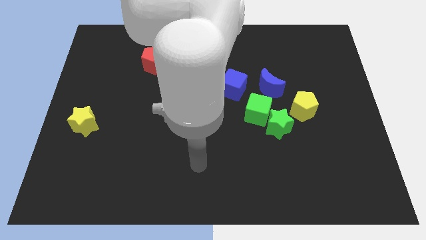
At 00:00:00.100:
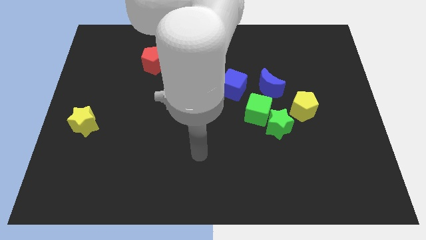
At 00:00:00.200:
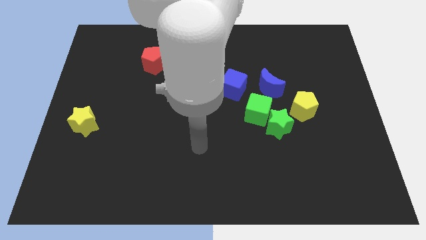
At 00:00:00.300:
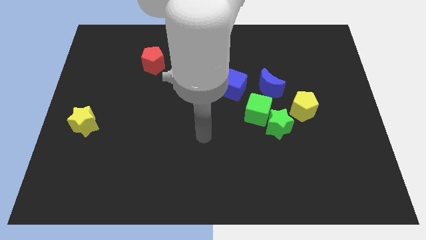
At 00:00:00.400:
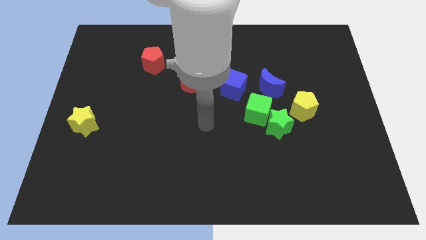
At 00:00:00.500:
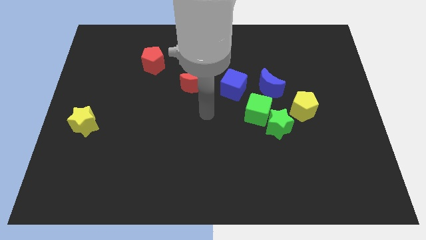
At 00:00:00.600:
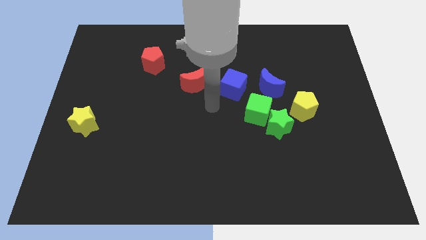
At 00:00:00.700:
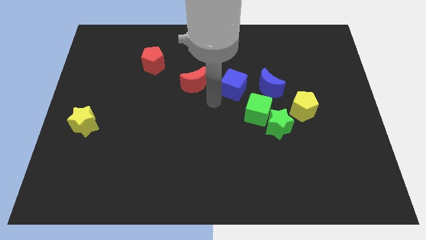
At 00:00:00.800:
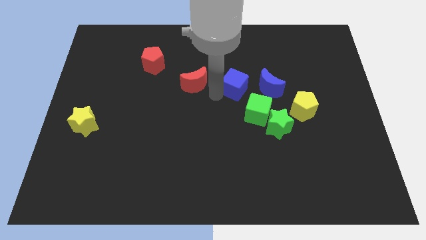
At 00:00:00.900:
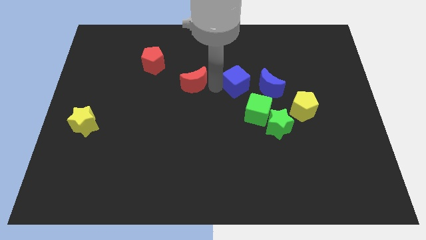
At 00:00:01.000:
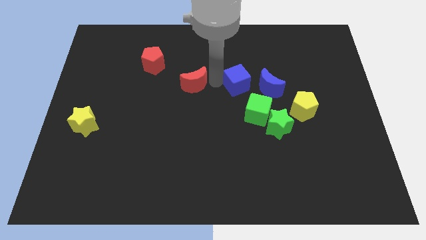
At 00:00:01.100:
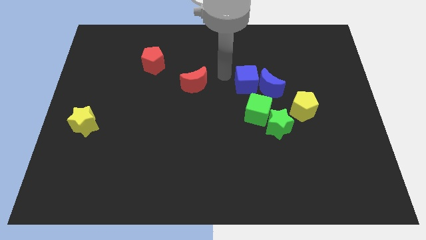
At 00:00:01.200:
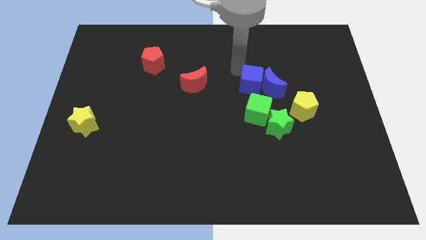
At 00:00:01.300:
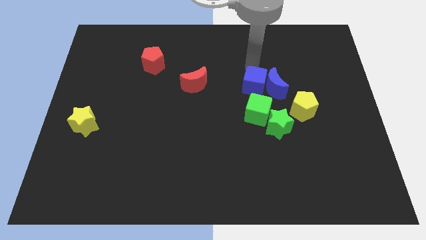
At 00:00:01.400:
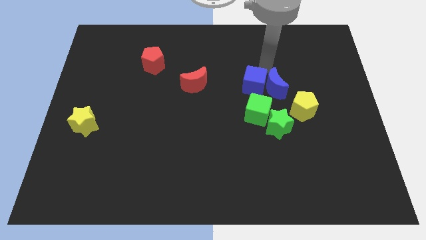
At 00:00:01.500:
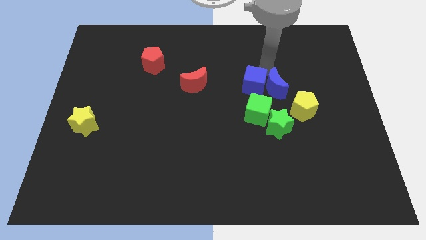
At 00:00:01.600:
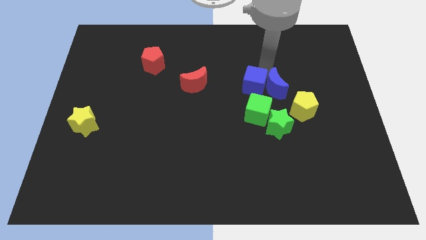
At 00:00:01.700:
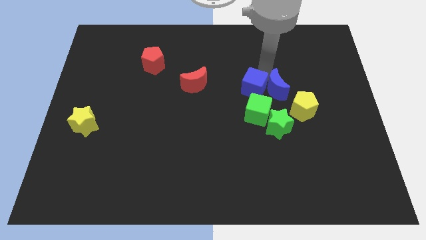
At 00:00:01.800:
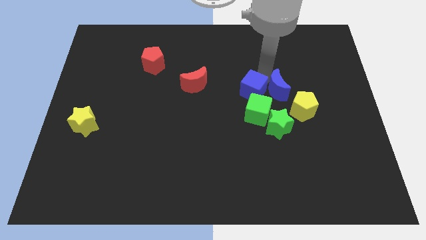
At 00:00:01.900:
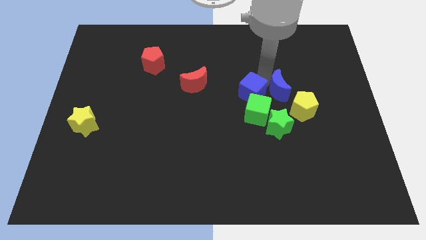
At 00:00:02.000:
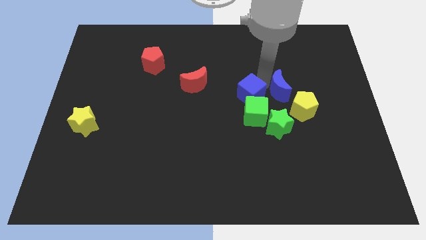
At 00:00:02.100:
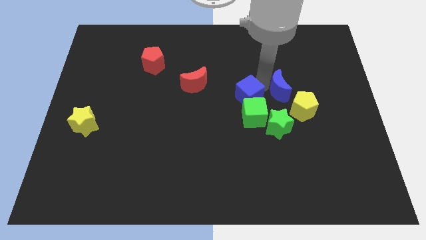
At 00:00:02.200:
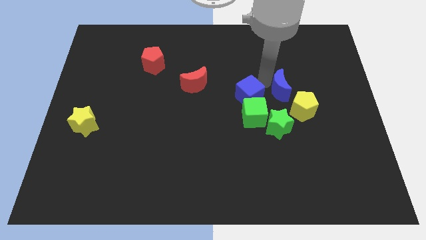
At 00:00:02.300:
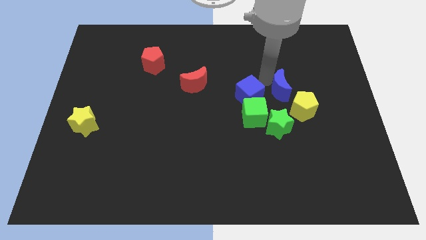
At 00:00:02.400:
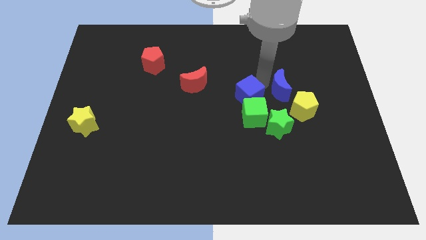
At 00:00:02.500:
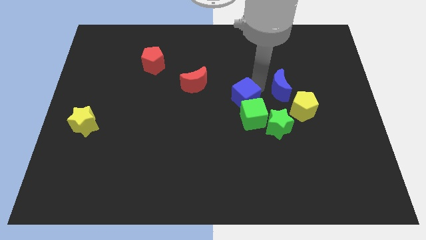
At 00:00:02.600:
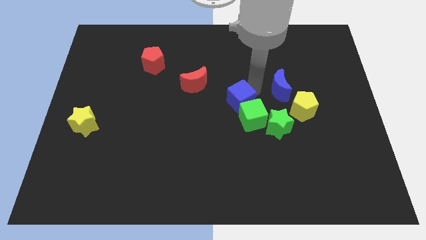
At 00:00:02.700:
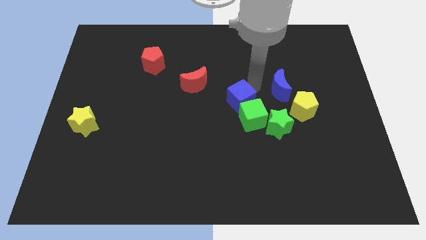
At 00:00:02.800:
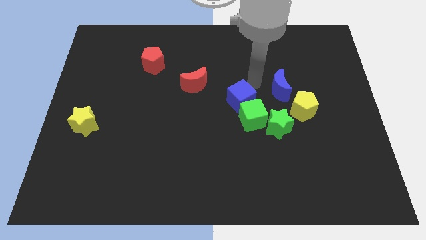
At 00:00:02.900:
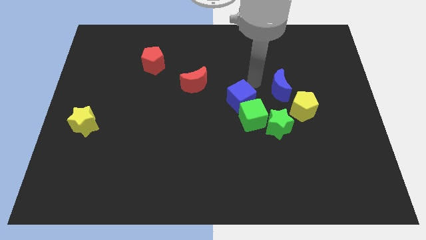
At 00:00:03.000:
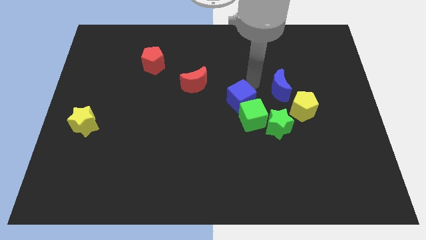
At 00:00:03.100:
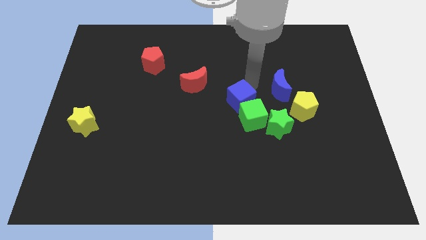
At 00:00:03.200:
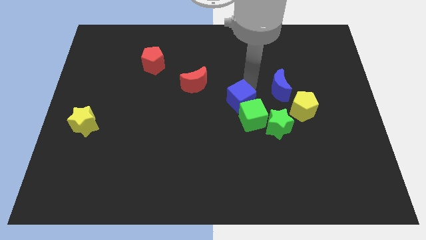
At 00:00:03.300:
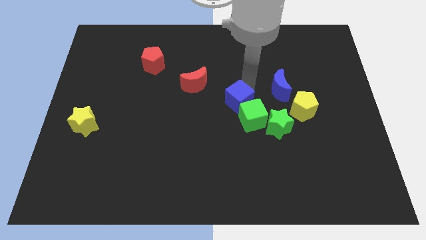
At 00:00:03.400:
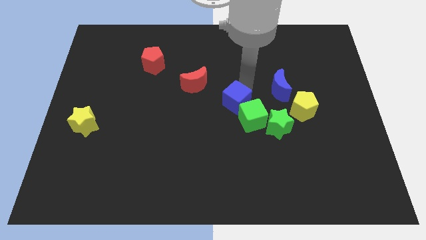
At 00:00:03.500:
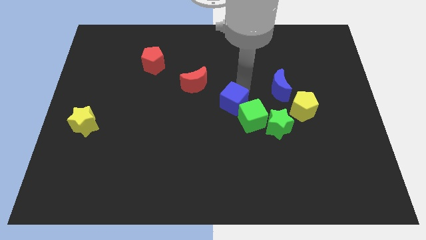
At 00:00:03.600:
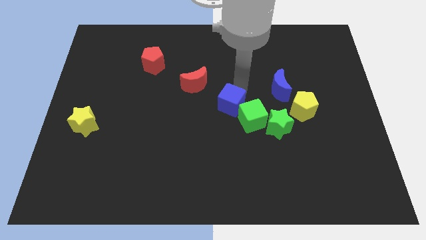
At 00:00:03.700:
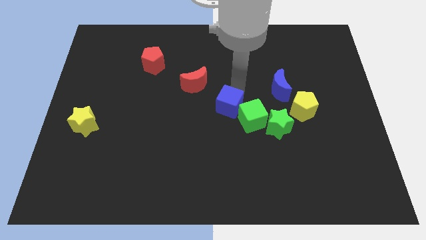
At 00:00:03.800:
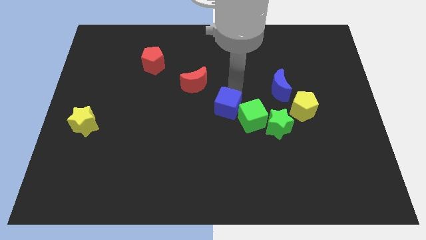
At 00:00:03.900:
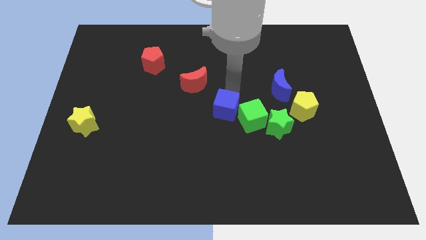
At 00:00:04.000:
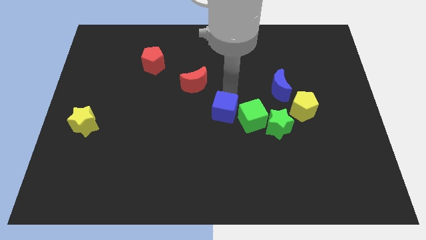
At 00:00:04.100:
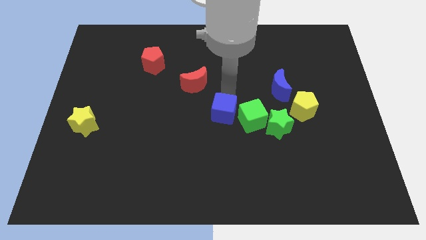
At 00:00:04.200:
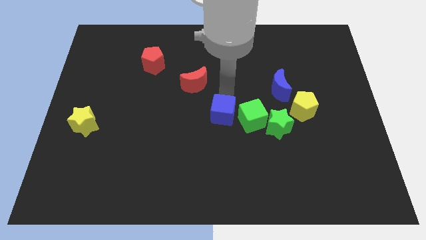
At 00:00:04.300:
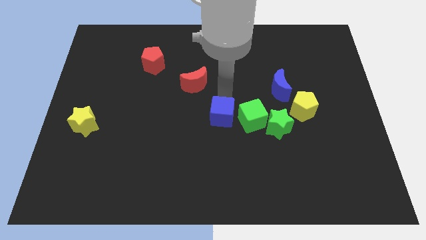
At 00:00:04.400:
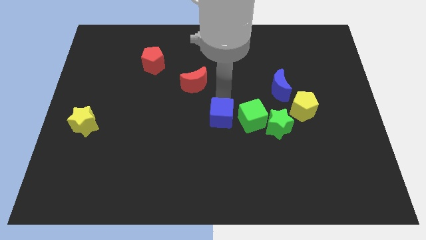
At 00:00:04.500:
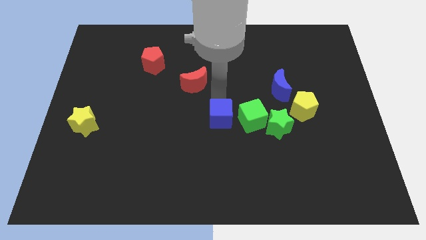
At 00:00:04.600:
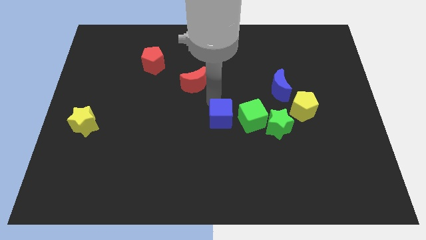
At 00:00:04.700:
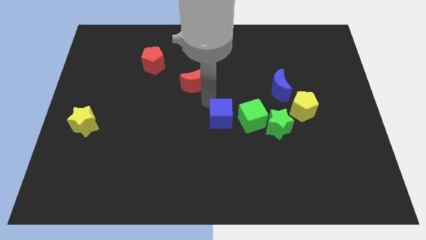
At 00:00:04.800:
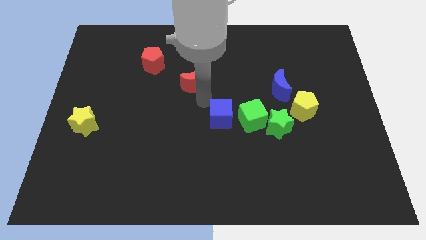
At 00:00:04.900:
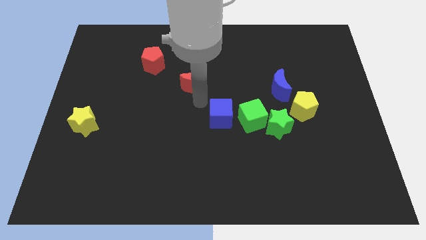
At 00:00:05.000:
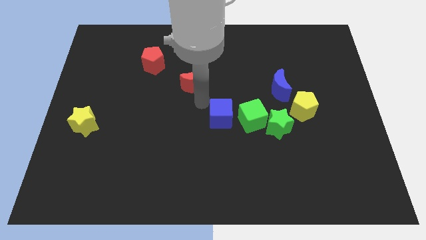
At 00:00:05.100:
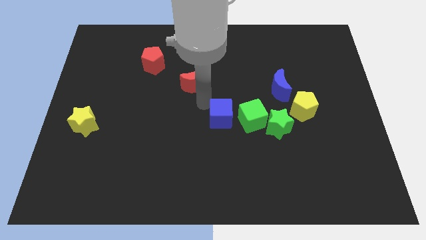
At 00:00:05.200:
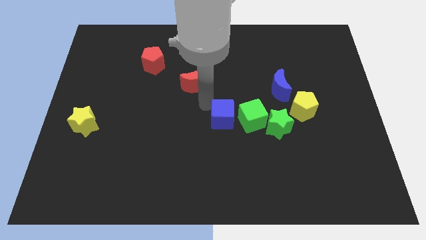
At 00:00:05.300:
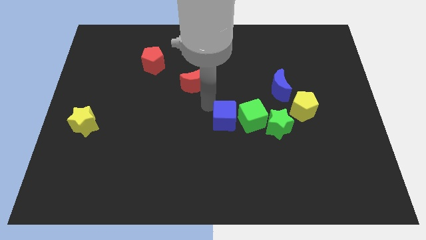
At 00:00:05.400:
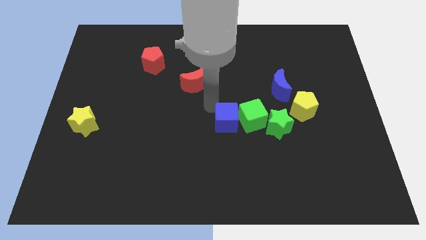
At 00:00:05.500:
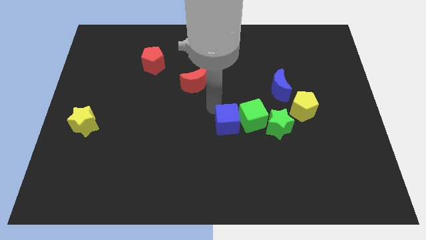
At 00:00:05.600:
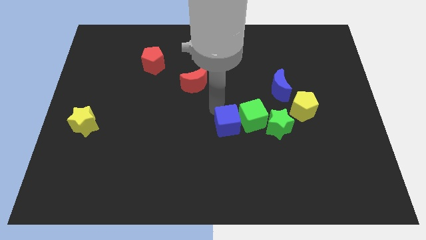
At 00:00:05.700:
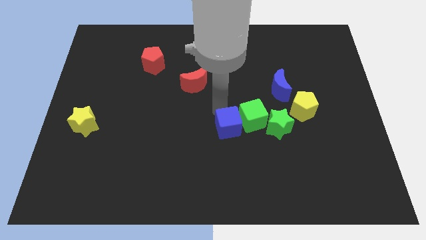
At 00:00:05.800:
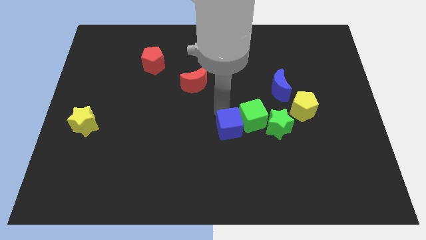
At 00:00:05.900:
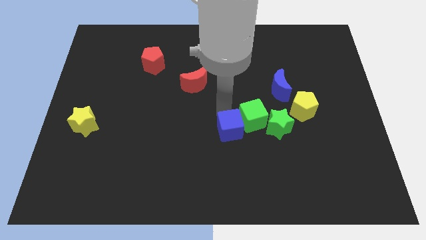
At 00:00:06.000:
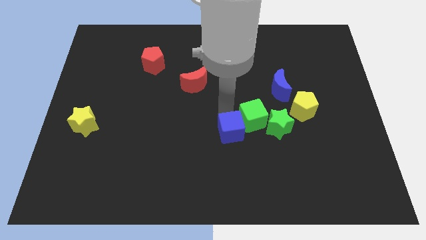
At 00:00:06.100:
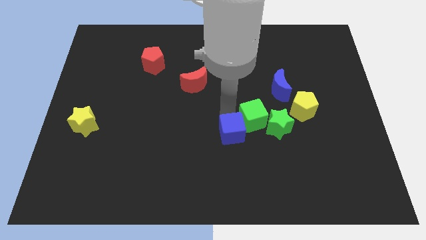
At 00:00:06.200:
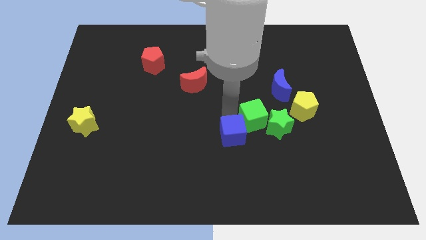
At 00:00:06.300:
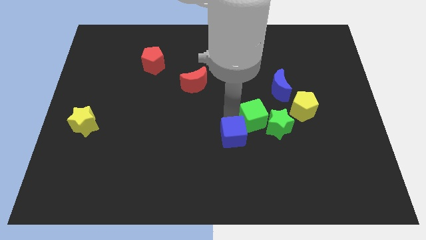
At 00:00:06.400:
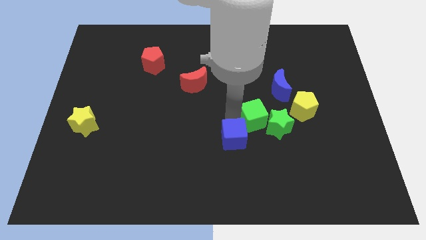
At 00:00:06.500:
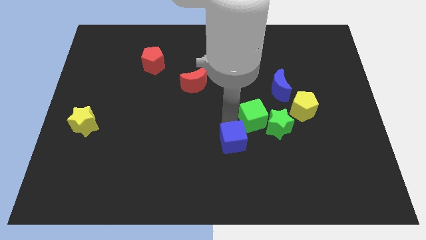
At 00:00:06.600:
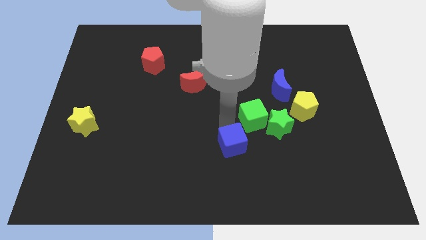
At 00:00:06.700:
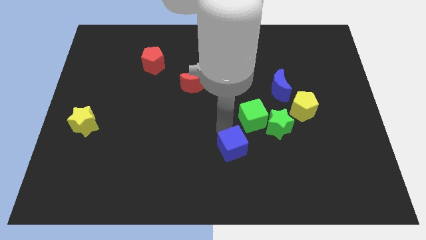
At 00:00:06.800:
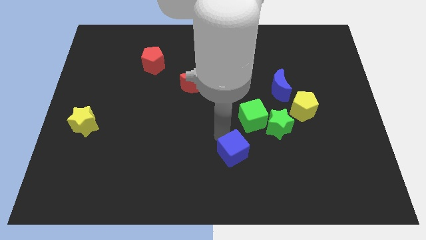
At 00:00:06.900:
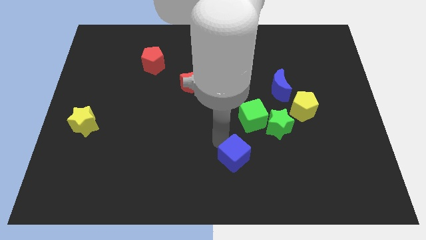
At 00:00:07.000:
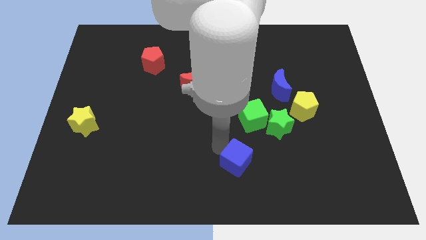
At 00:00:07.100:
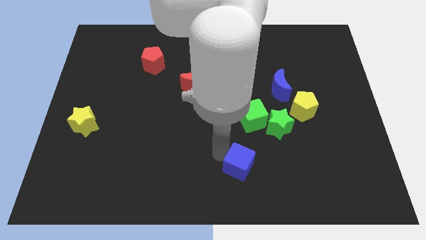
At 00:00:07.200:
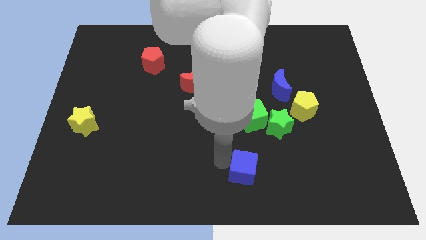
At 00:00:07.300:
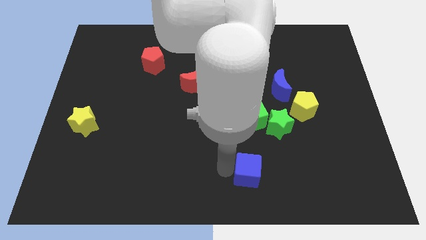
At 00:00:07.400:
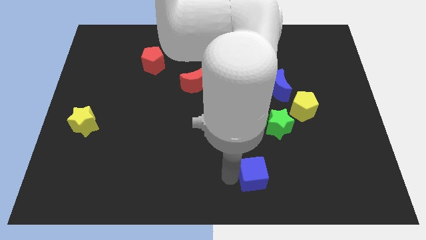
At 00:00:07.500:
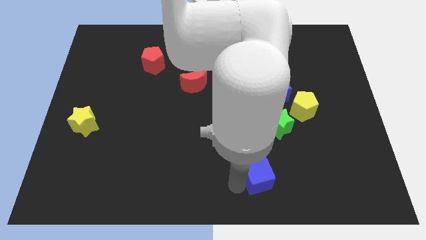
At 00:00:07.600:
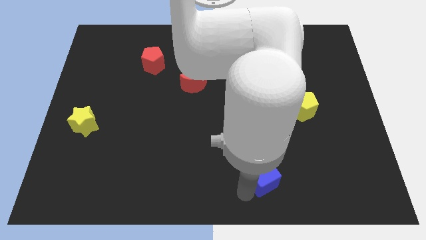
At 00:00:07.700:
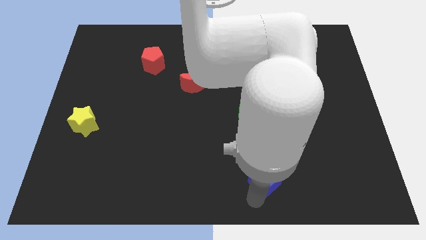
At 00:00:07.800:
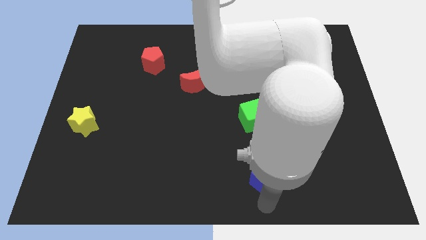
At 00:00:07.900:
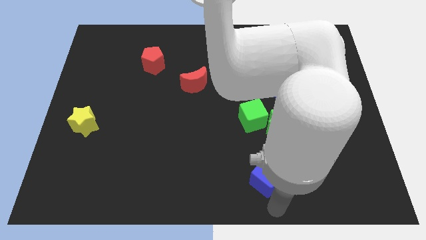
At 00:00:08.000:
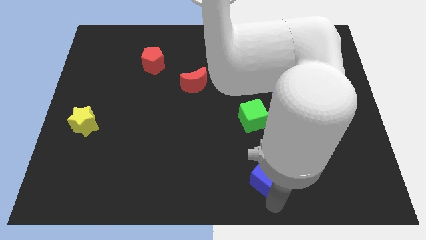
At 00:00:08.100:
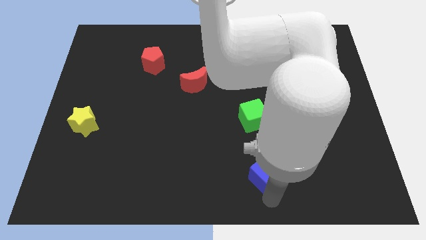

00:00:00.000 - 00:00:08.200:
slide the blue cube downwards and right diagonally a little

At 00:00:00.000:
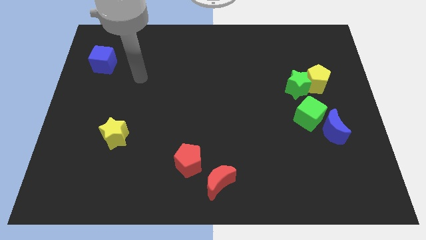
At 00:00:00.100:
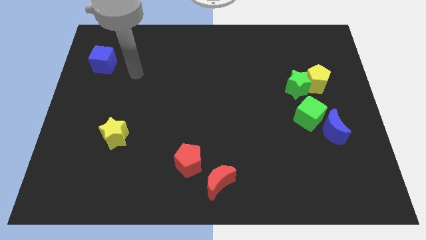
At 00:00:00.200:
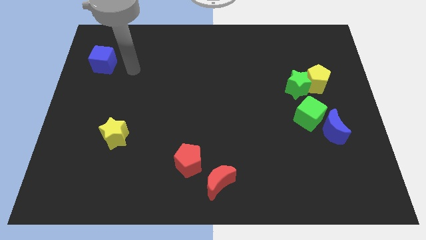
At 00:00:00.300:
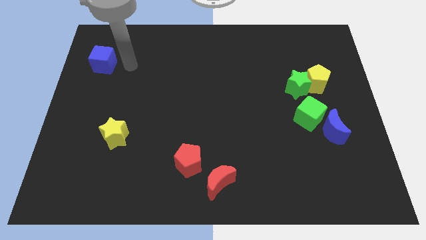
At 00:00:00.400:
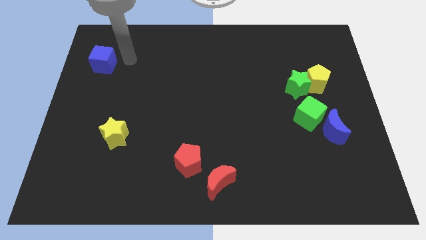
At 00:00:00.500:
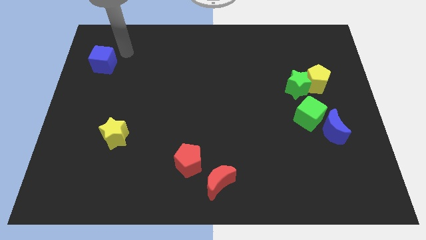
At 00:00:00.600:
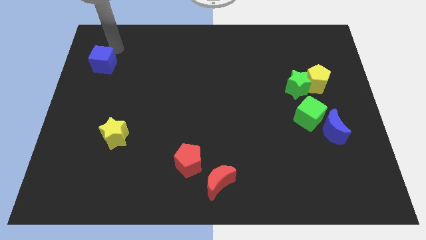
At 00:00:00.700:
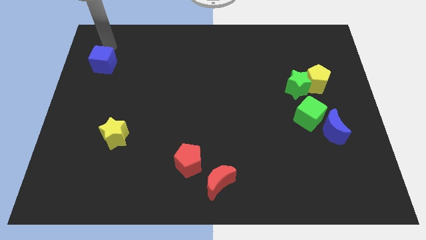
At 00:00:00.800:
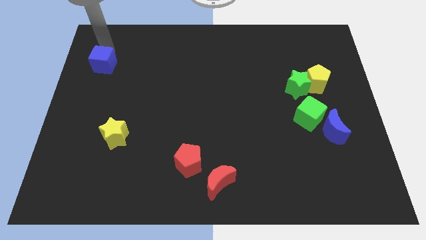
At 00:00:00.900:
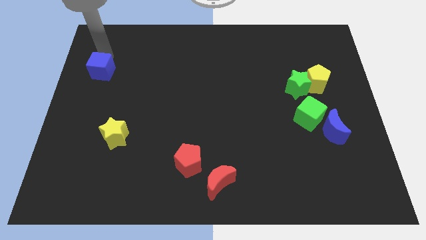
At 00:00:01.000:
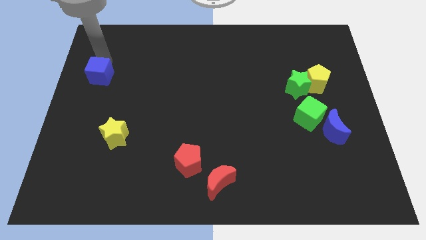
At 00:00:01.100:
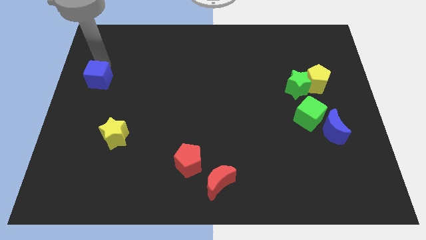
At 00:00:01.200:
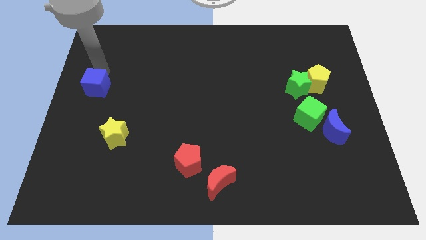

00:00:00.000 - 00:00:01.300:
slide the blue cube down slightly
